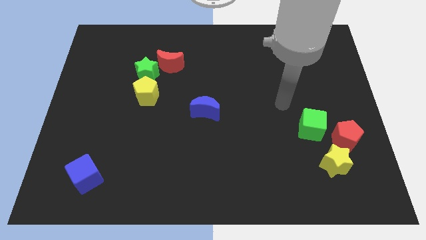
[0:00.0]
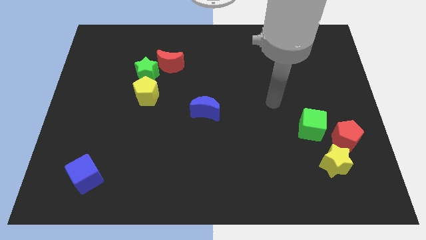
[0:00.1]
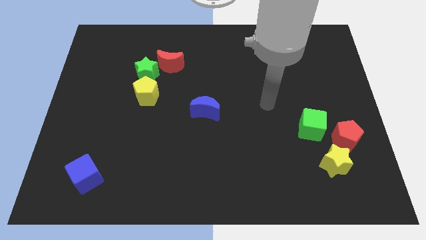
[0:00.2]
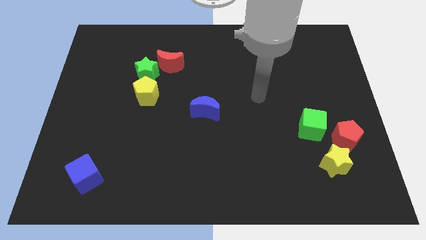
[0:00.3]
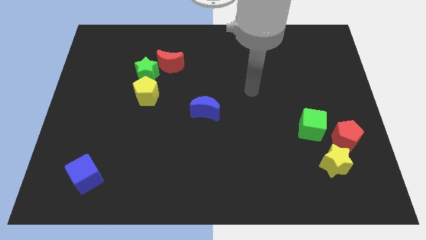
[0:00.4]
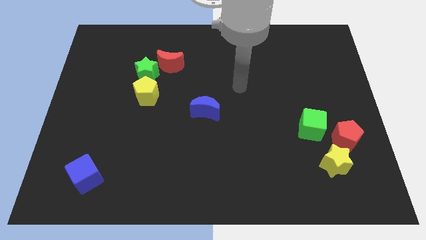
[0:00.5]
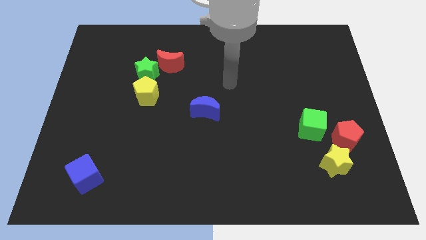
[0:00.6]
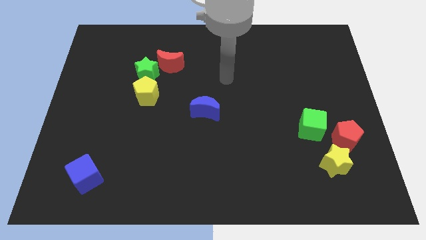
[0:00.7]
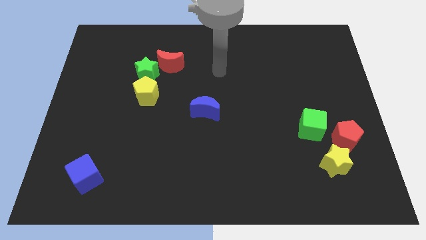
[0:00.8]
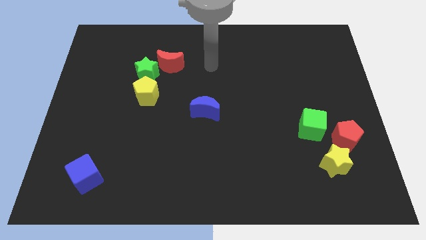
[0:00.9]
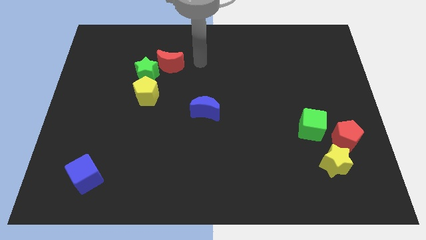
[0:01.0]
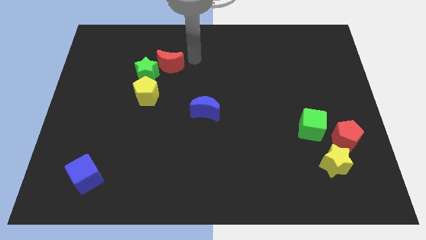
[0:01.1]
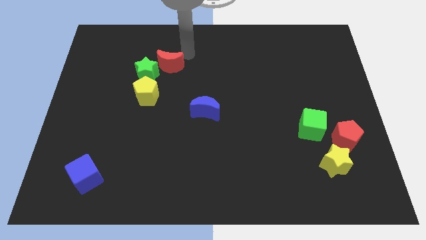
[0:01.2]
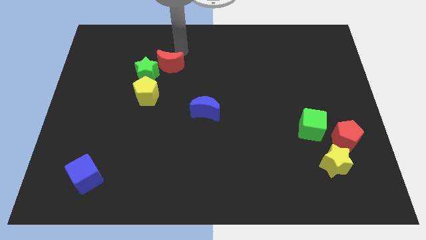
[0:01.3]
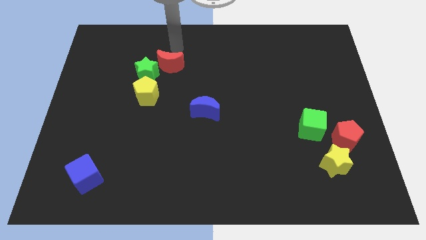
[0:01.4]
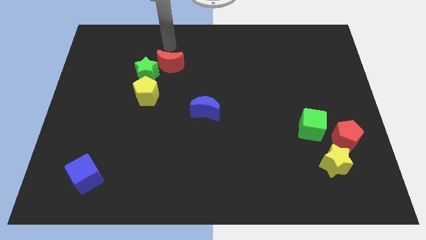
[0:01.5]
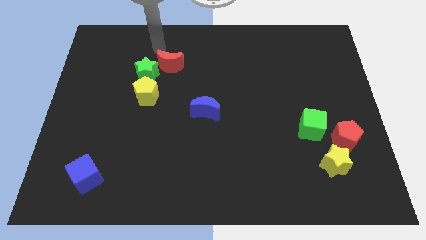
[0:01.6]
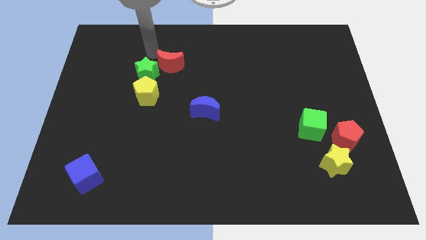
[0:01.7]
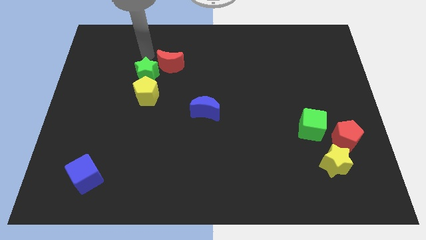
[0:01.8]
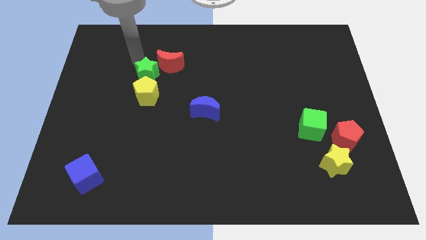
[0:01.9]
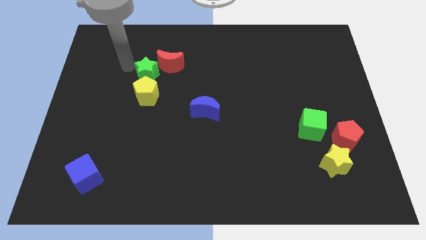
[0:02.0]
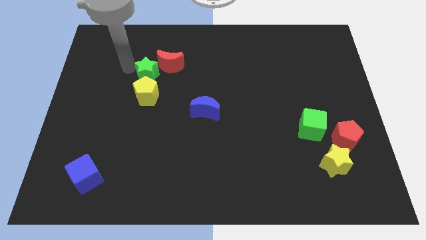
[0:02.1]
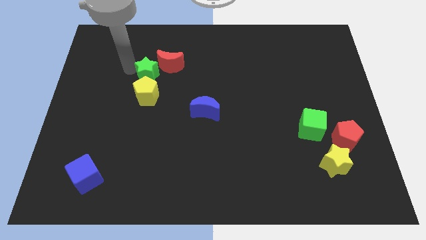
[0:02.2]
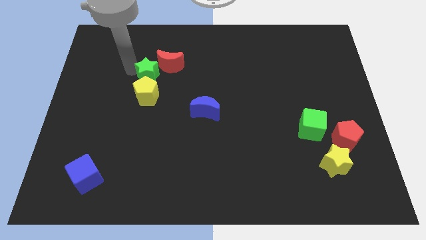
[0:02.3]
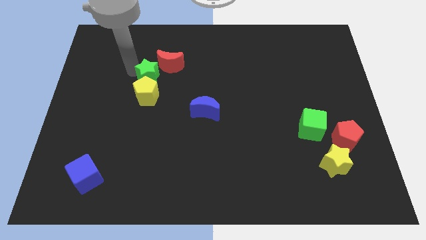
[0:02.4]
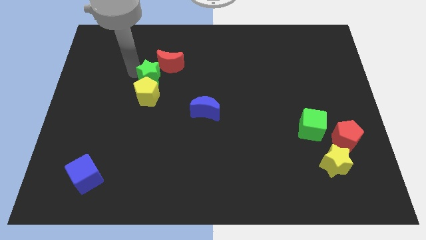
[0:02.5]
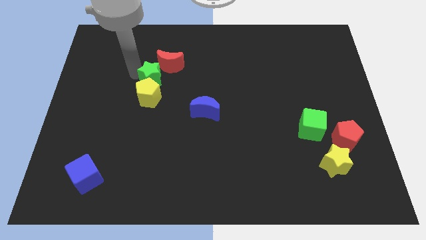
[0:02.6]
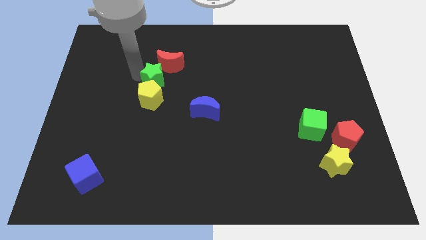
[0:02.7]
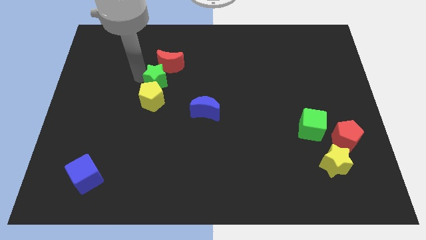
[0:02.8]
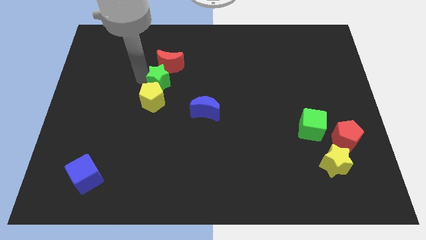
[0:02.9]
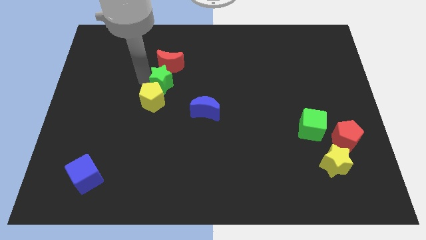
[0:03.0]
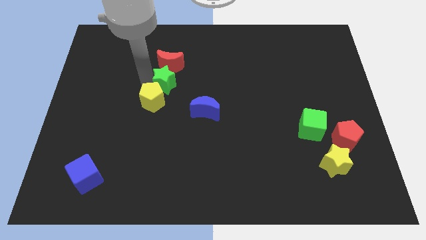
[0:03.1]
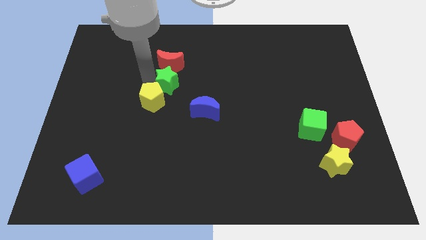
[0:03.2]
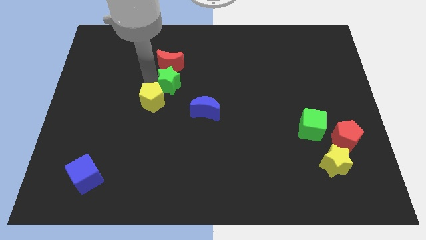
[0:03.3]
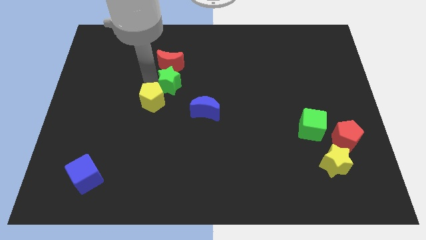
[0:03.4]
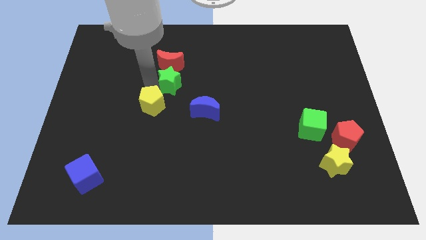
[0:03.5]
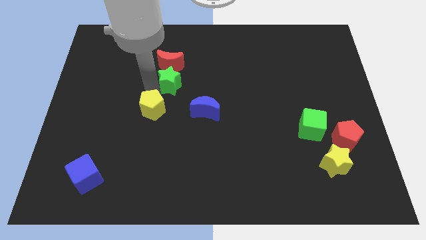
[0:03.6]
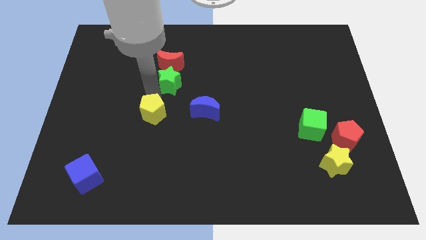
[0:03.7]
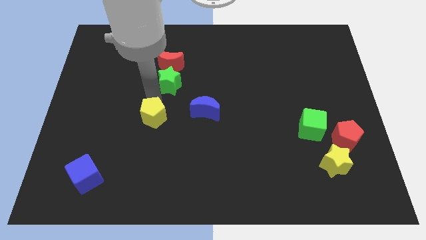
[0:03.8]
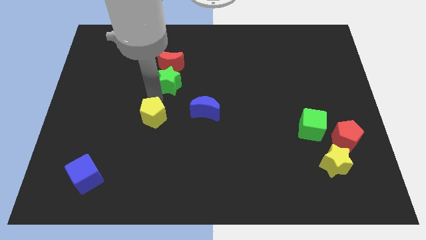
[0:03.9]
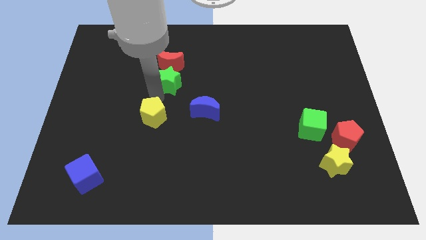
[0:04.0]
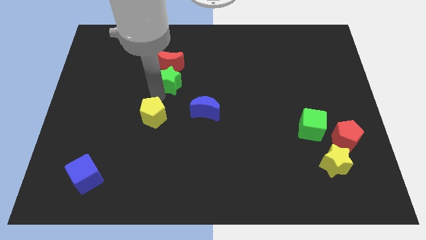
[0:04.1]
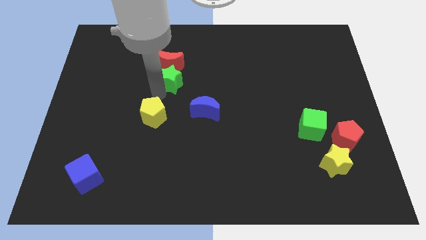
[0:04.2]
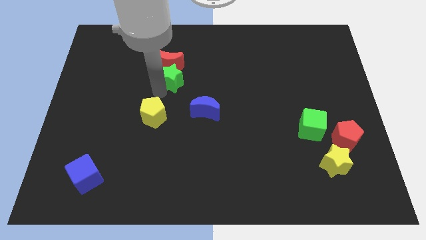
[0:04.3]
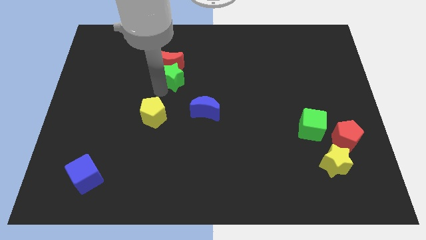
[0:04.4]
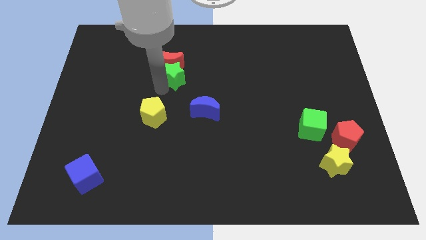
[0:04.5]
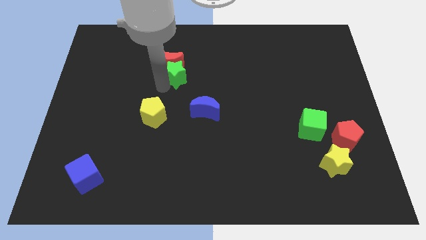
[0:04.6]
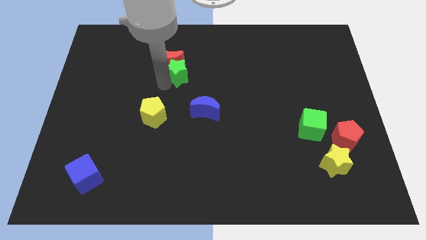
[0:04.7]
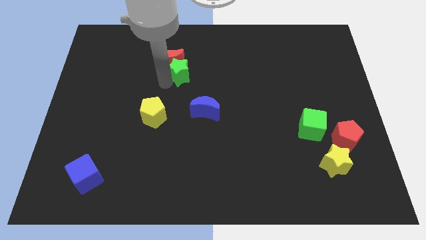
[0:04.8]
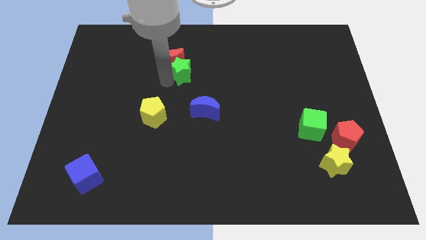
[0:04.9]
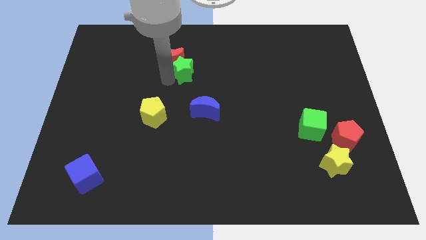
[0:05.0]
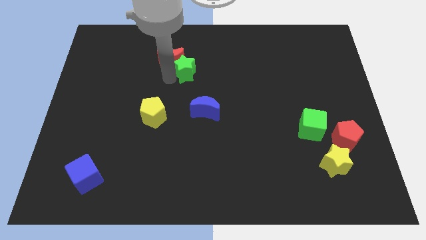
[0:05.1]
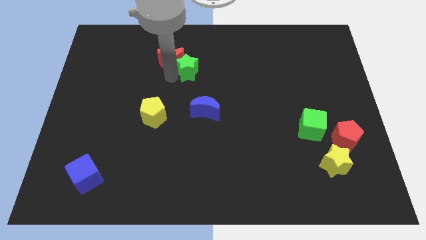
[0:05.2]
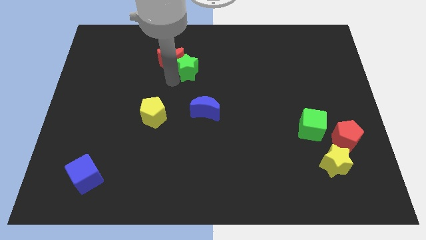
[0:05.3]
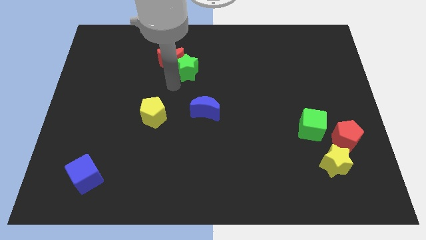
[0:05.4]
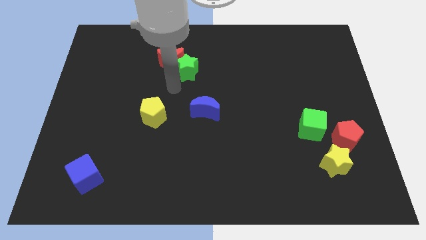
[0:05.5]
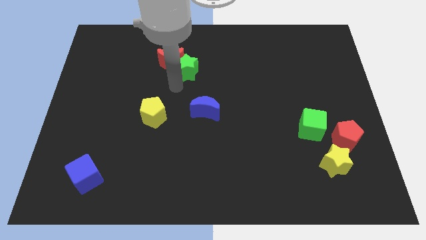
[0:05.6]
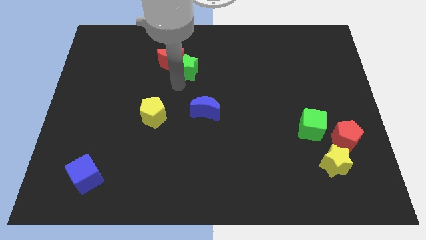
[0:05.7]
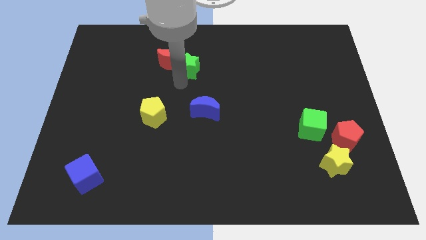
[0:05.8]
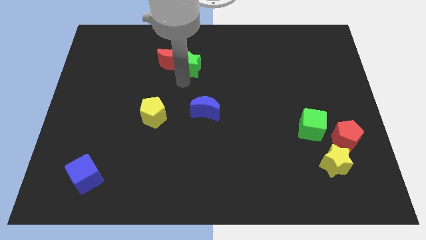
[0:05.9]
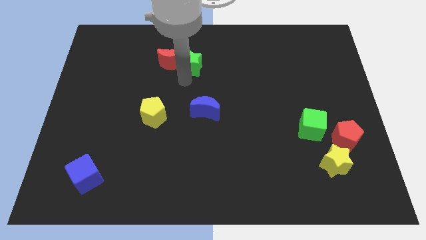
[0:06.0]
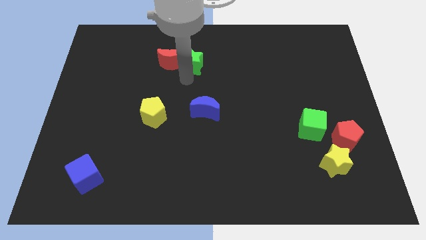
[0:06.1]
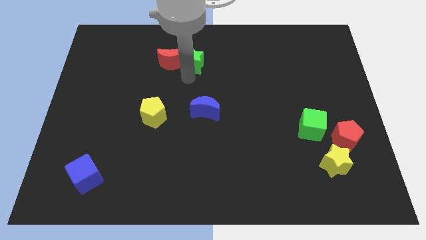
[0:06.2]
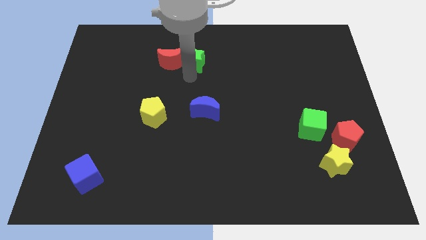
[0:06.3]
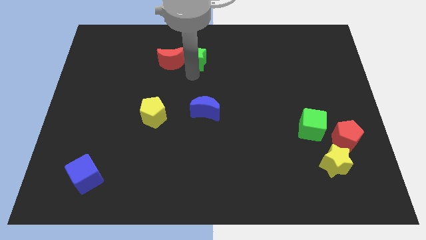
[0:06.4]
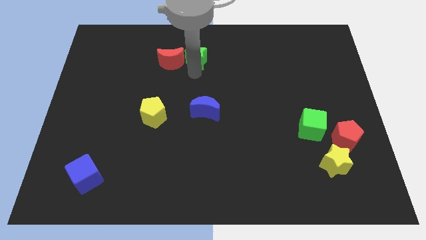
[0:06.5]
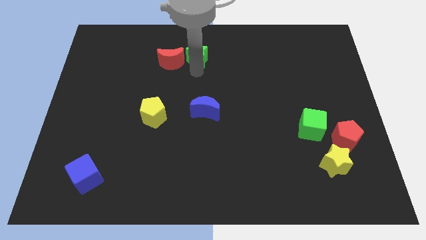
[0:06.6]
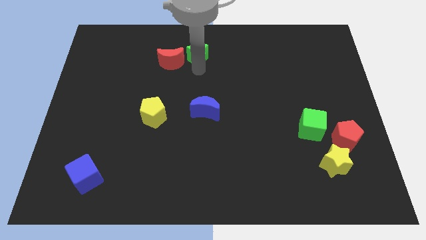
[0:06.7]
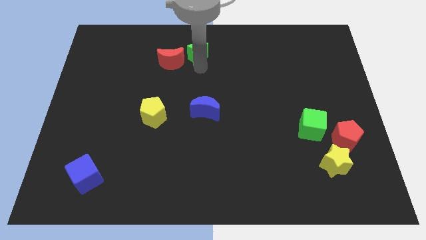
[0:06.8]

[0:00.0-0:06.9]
push the green star to the top
